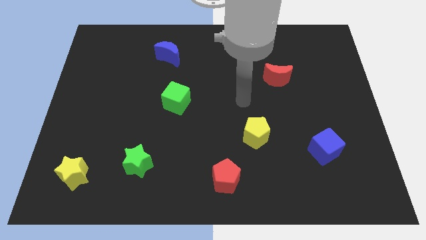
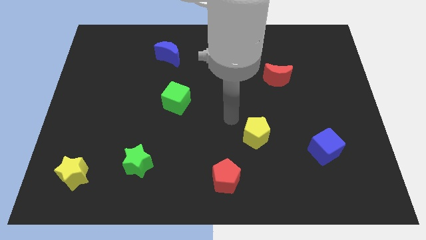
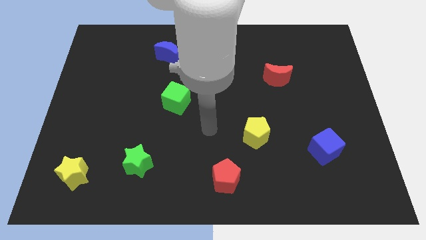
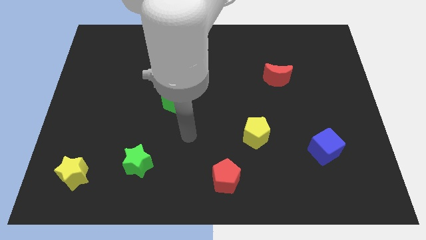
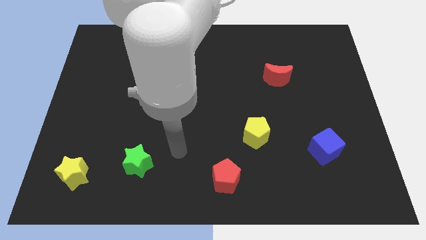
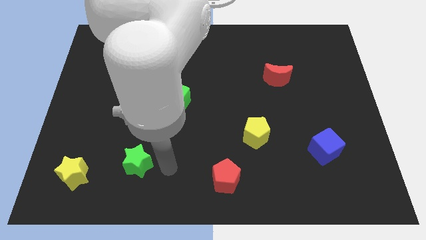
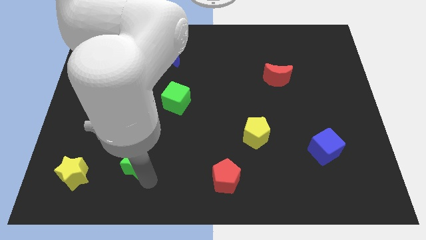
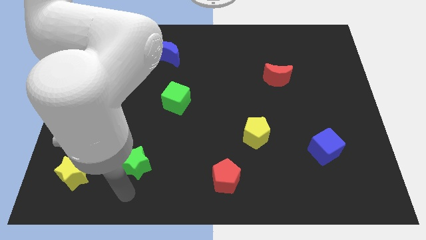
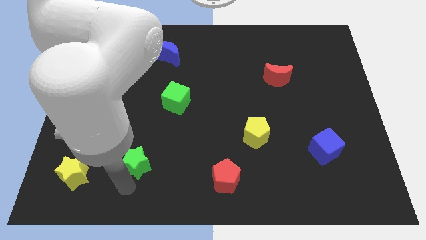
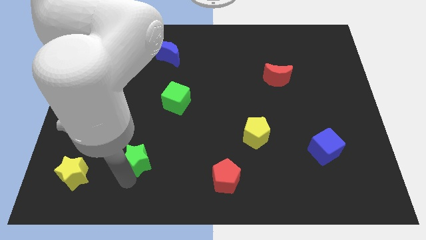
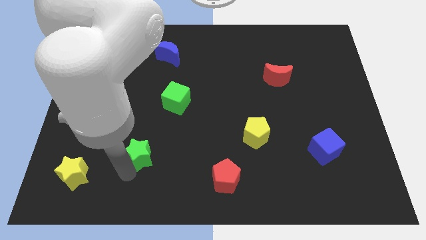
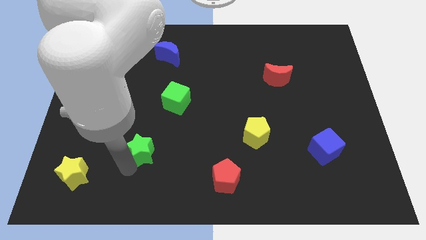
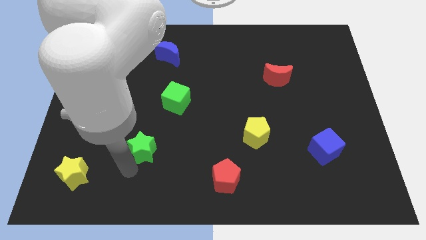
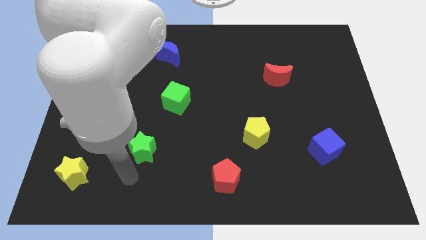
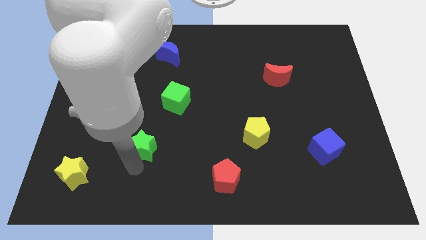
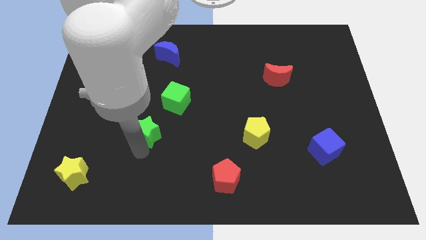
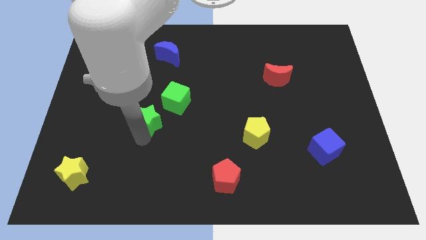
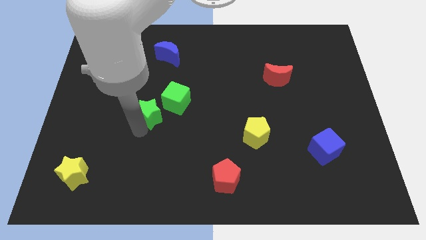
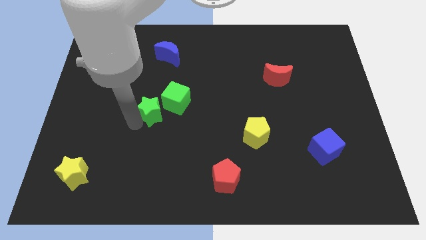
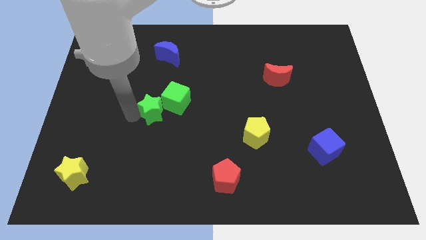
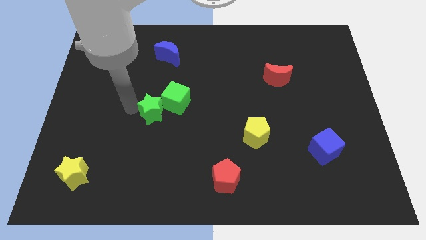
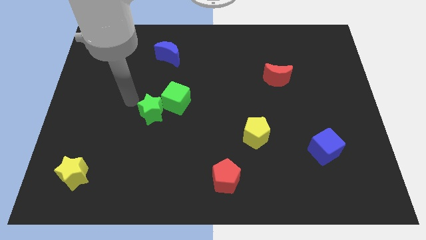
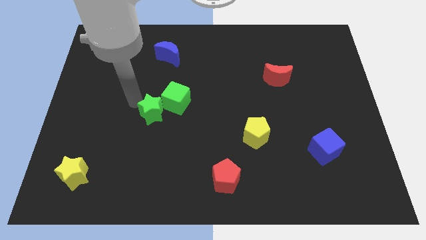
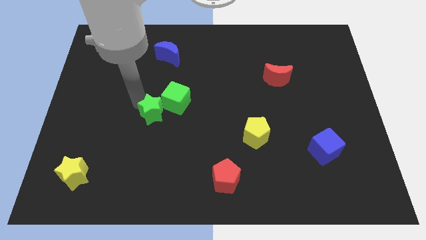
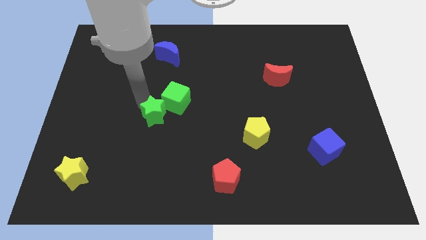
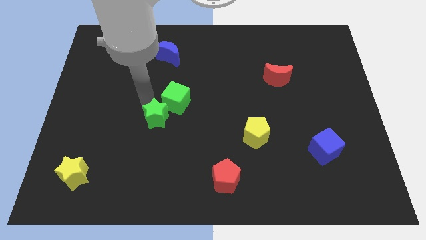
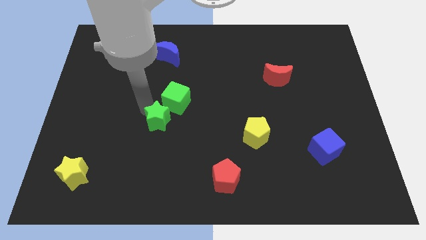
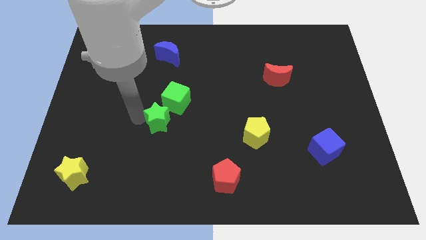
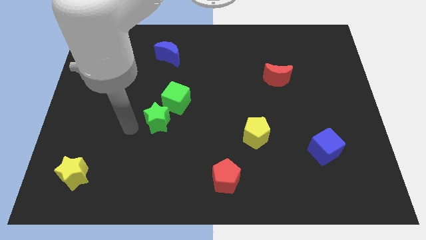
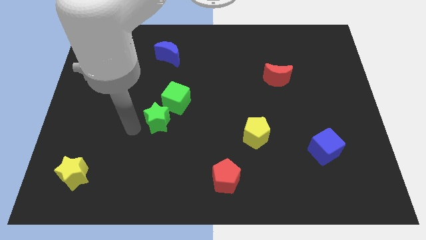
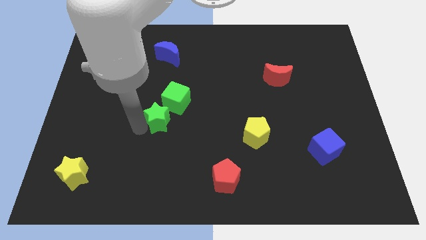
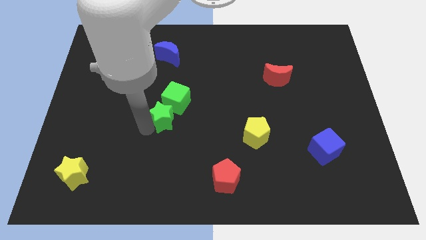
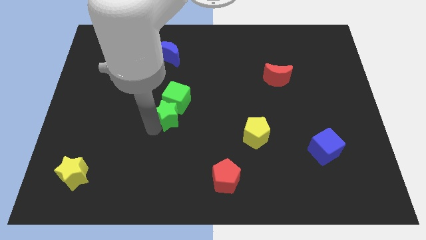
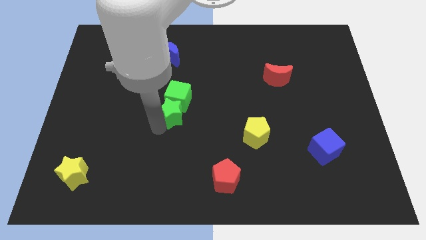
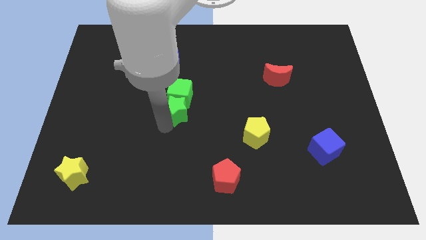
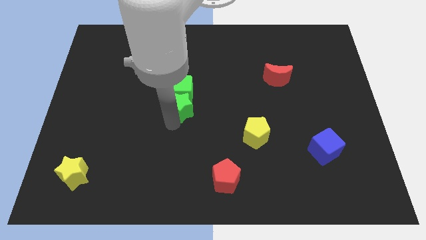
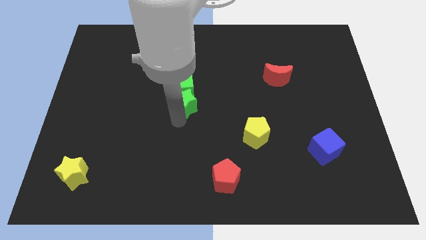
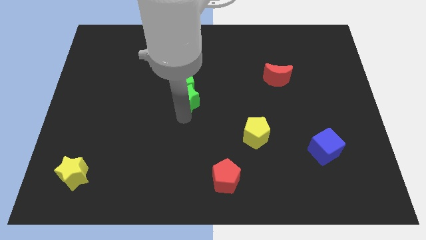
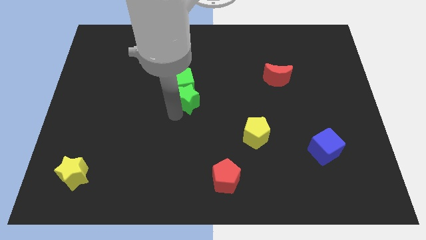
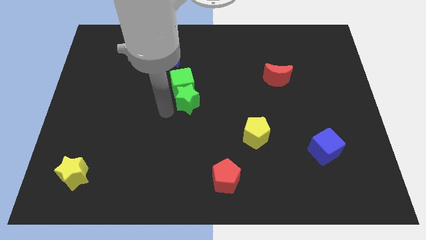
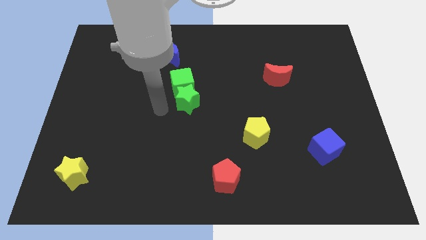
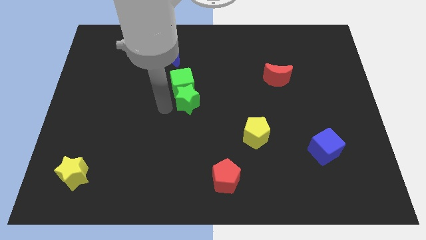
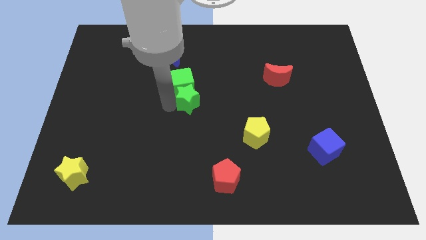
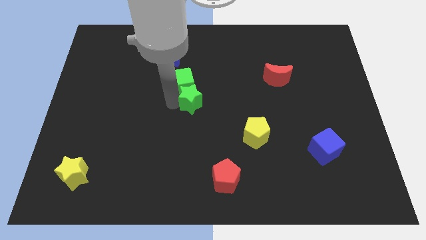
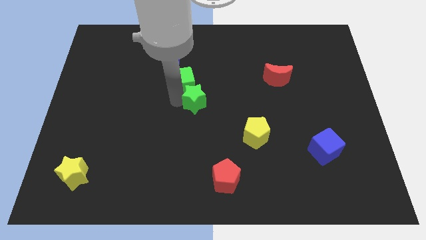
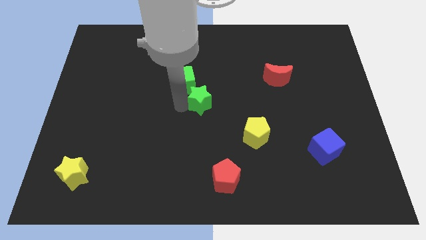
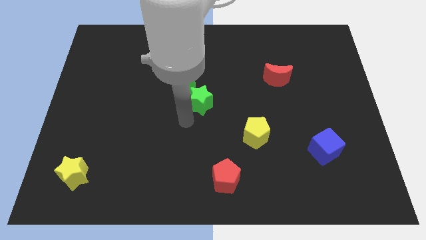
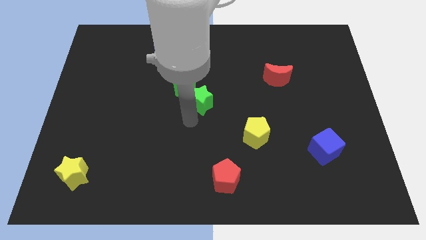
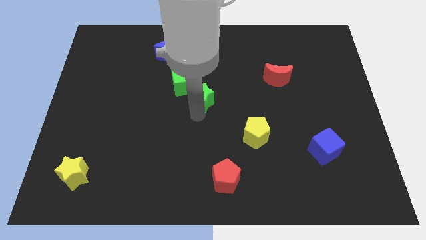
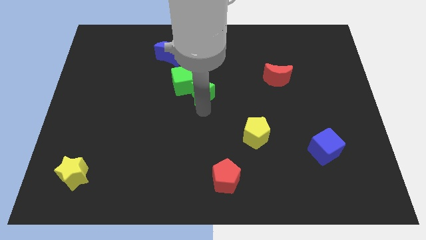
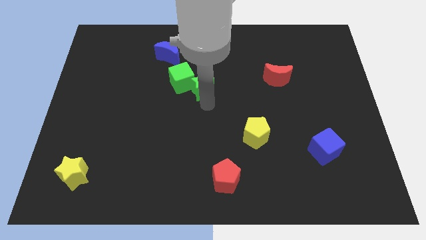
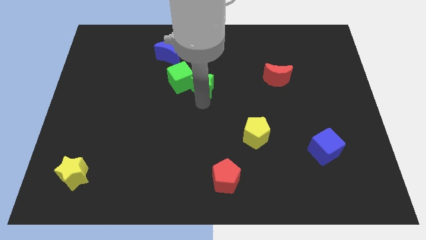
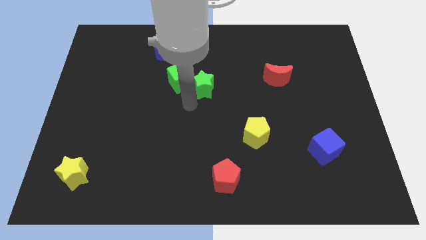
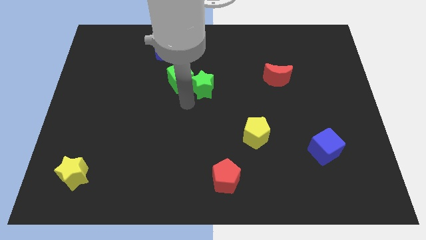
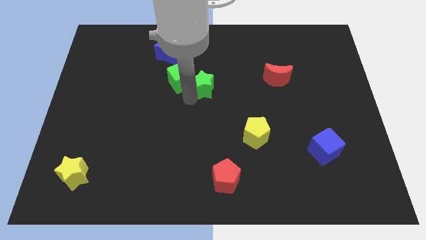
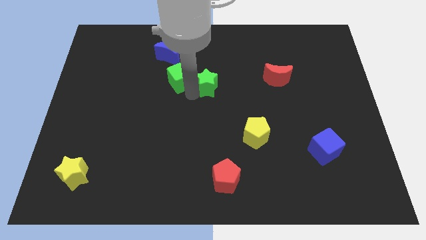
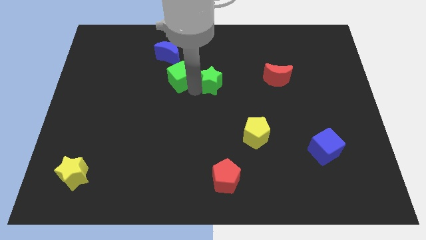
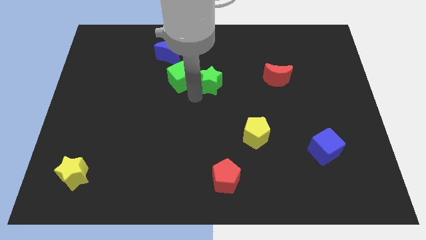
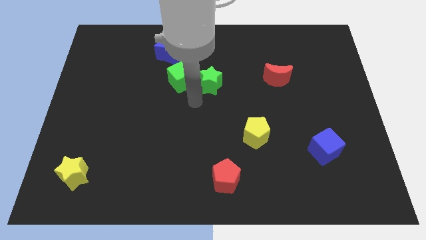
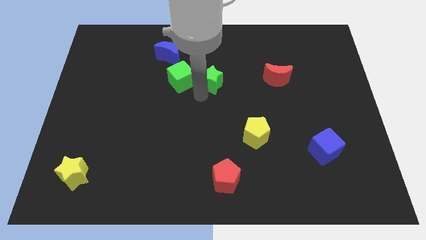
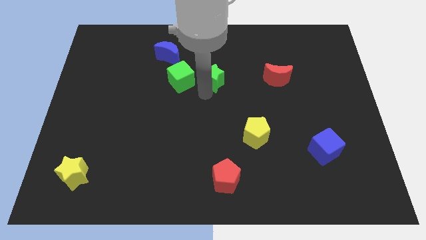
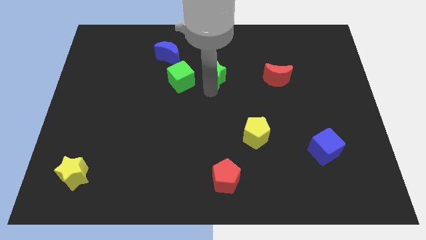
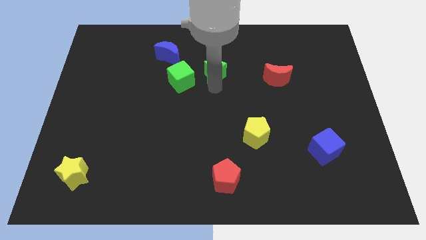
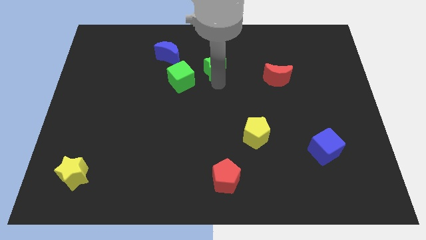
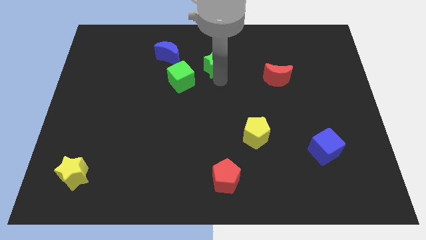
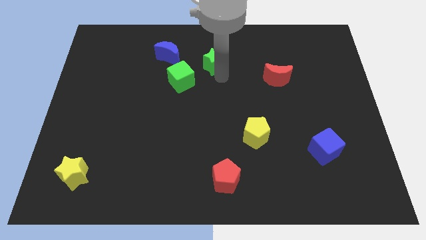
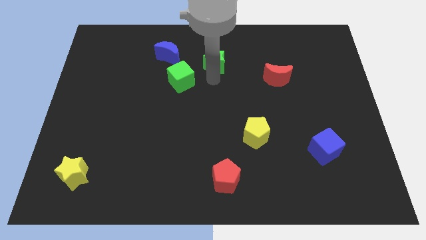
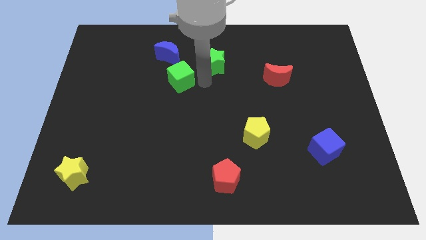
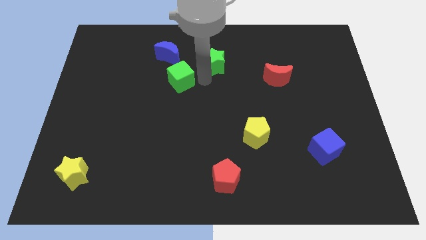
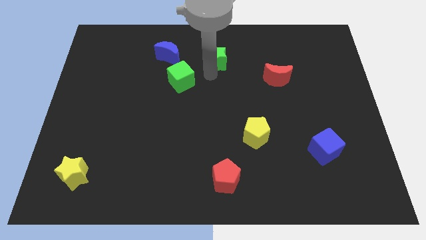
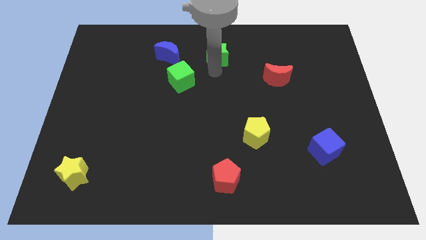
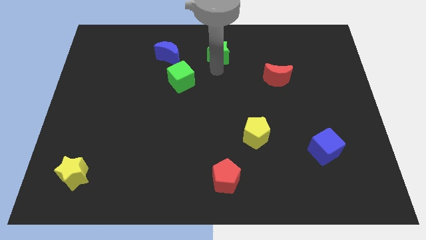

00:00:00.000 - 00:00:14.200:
push the green star to the towards your base
